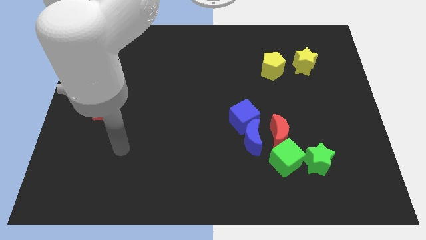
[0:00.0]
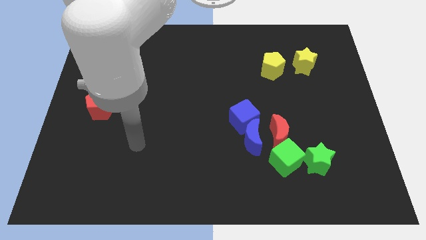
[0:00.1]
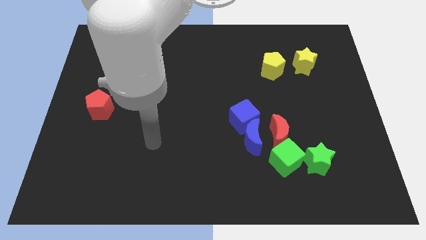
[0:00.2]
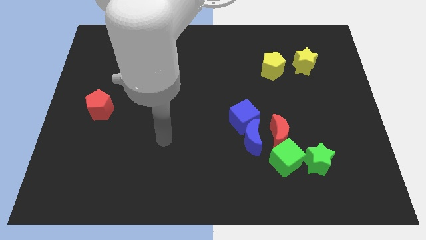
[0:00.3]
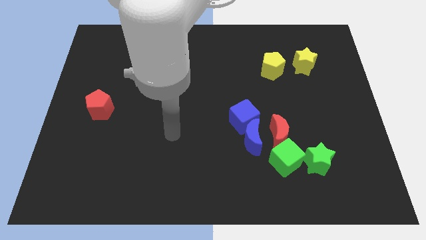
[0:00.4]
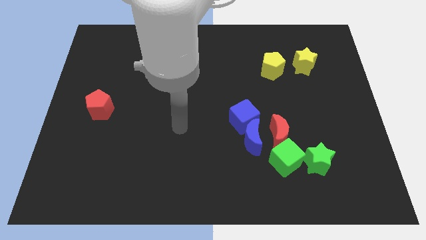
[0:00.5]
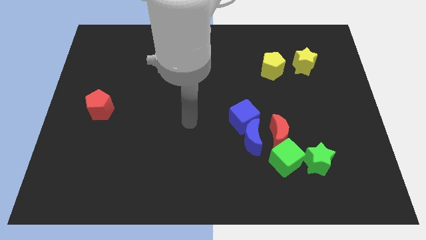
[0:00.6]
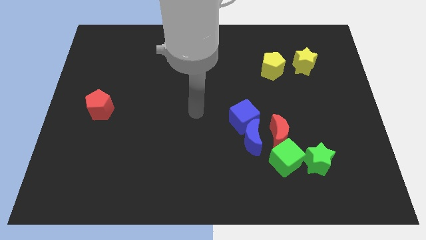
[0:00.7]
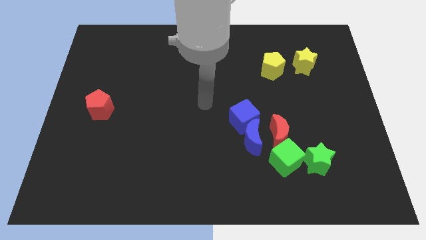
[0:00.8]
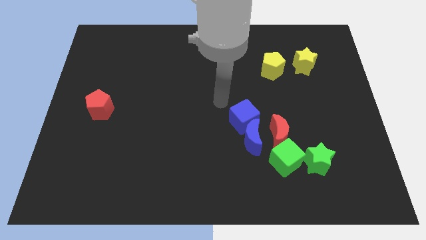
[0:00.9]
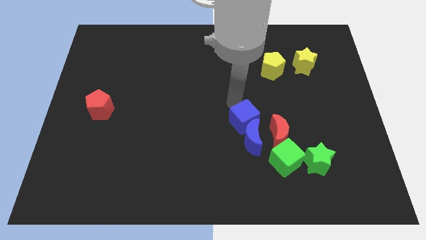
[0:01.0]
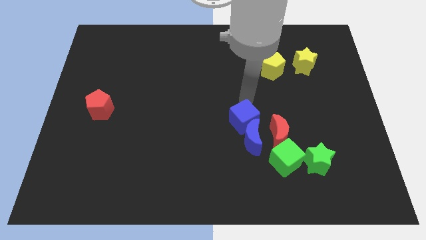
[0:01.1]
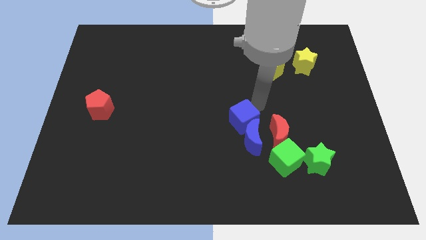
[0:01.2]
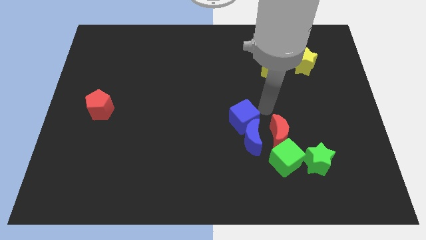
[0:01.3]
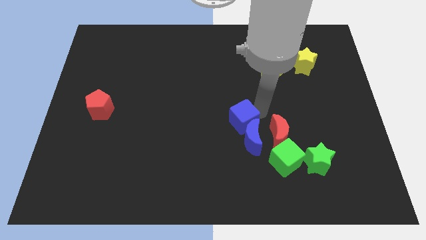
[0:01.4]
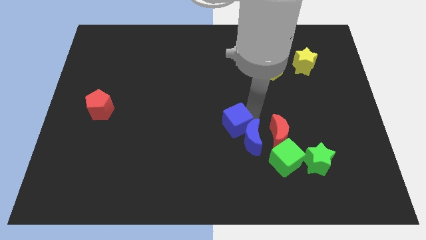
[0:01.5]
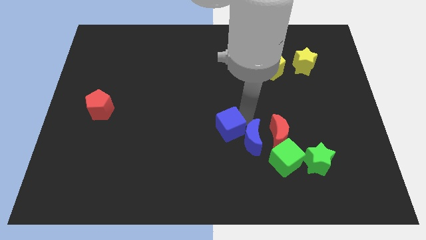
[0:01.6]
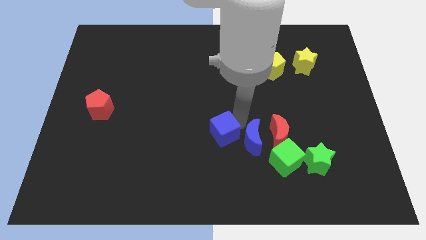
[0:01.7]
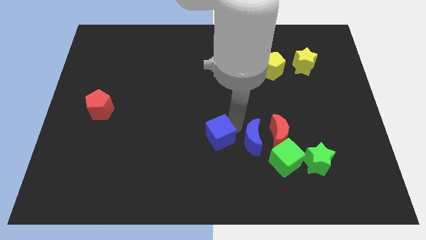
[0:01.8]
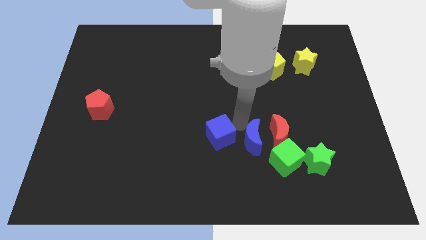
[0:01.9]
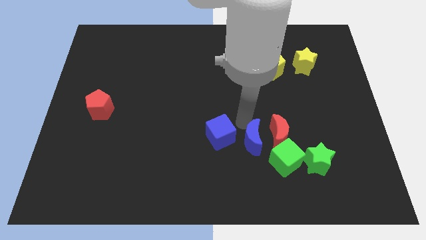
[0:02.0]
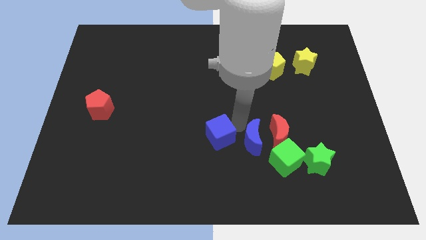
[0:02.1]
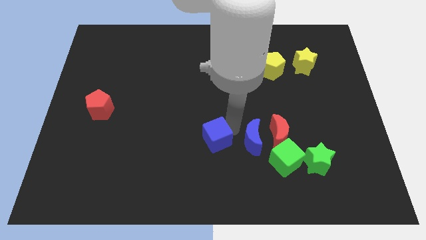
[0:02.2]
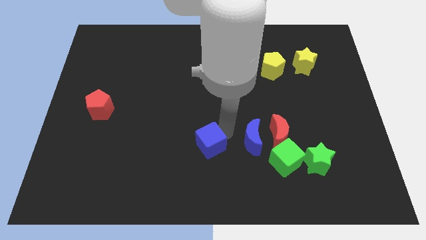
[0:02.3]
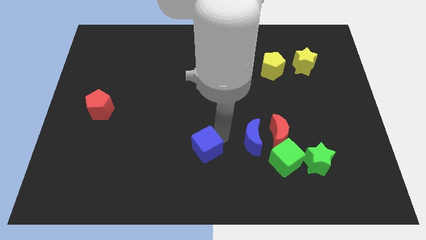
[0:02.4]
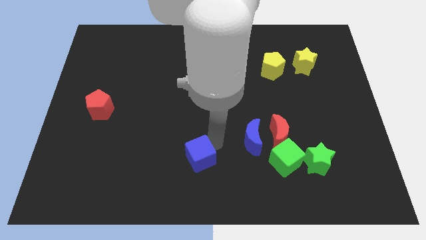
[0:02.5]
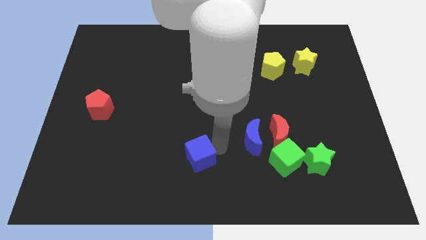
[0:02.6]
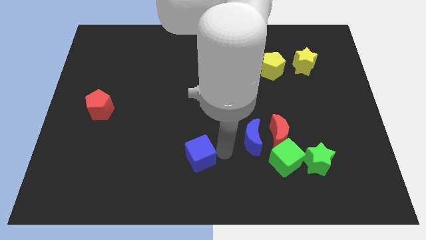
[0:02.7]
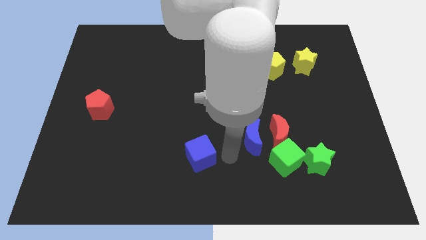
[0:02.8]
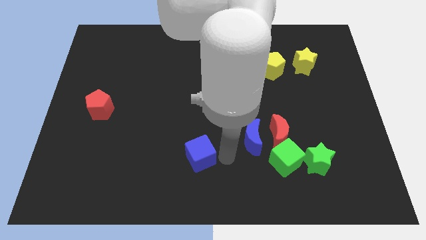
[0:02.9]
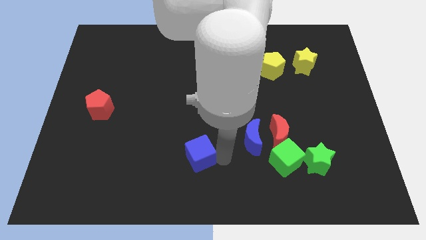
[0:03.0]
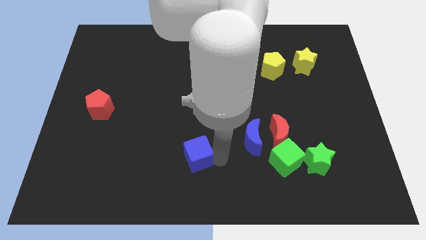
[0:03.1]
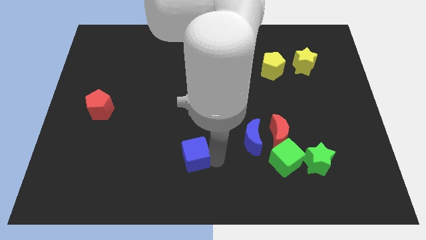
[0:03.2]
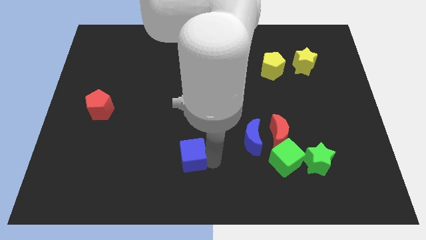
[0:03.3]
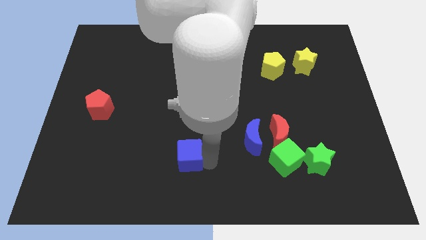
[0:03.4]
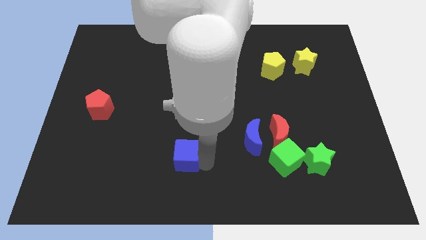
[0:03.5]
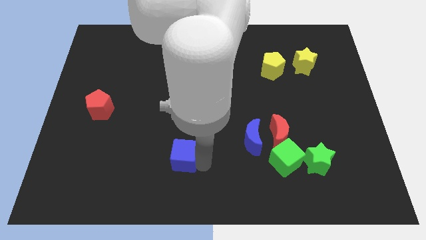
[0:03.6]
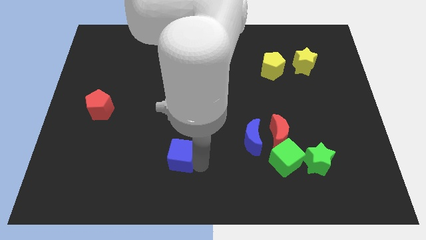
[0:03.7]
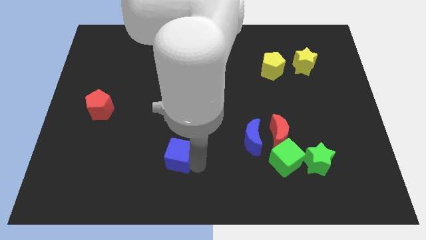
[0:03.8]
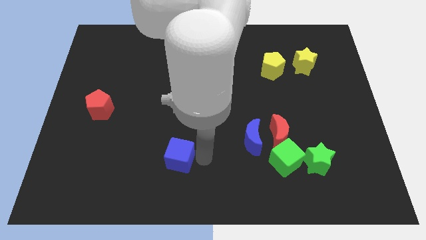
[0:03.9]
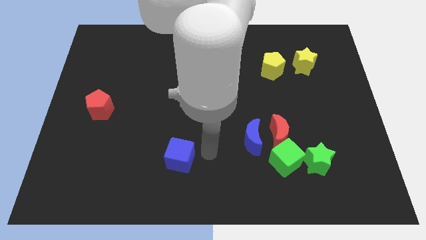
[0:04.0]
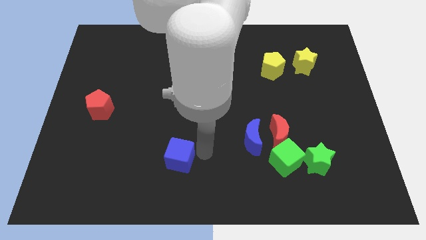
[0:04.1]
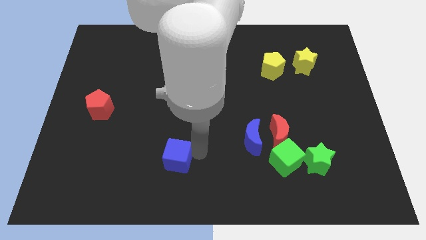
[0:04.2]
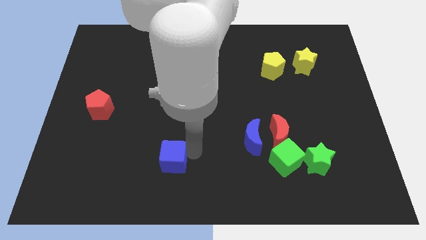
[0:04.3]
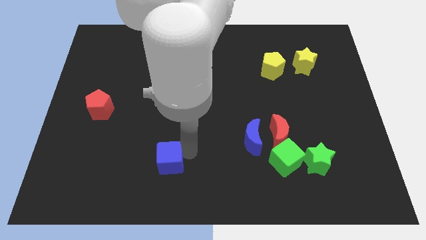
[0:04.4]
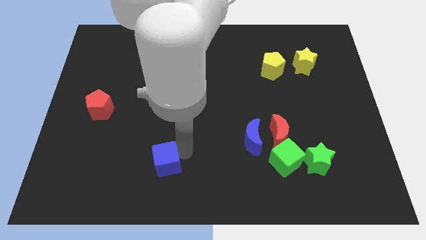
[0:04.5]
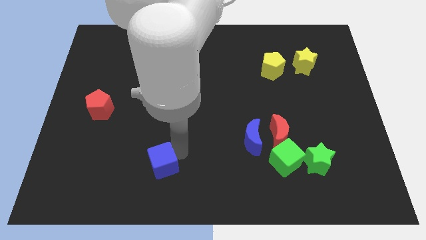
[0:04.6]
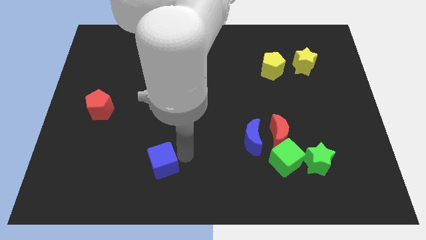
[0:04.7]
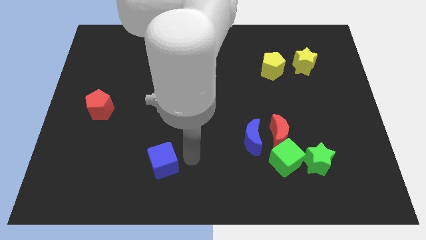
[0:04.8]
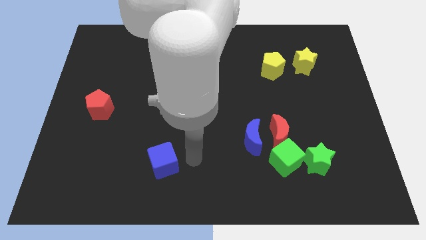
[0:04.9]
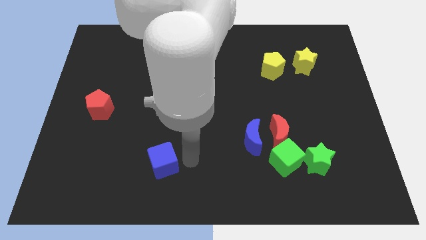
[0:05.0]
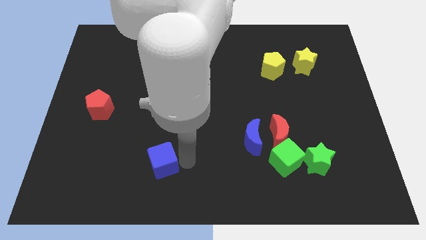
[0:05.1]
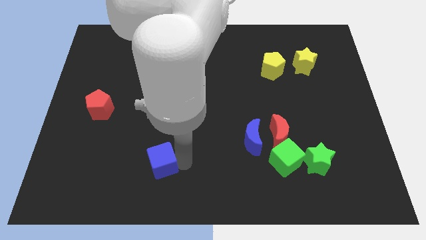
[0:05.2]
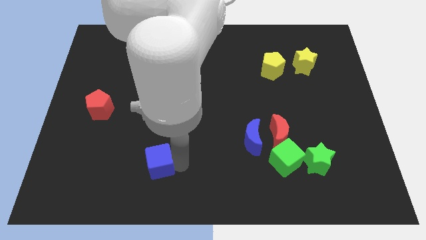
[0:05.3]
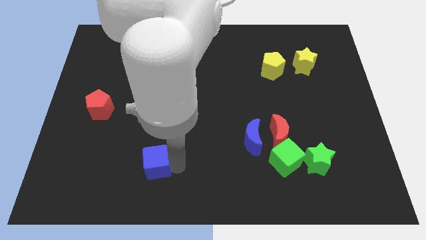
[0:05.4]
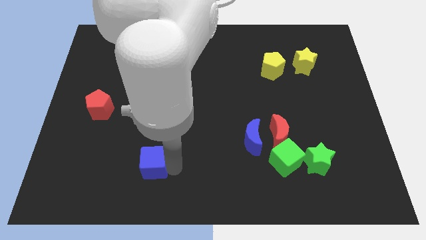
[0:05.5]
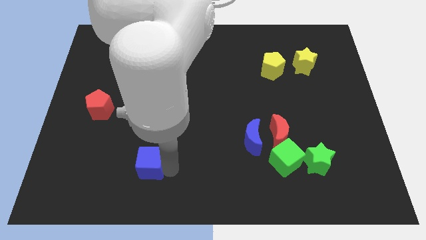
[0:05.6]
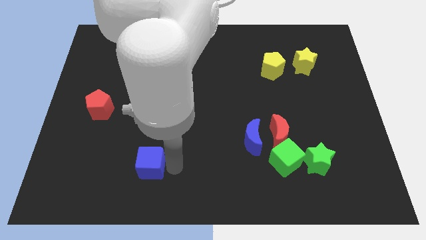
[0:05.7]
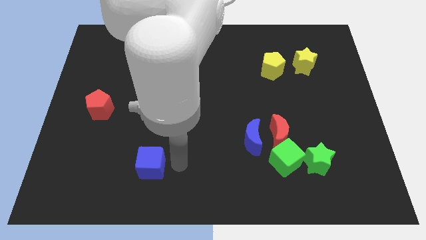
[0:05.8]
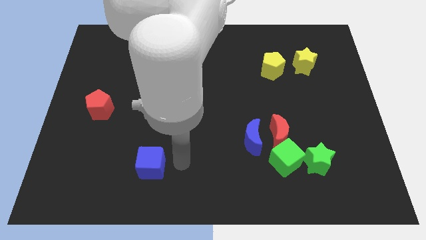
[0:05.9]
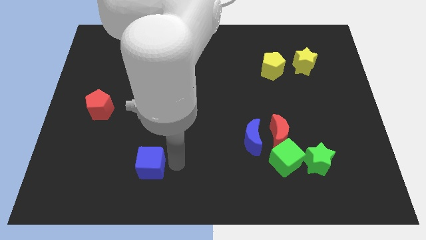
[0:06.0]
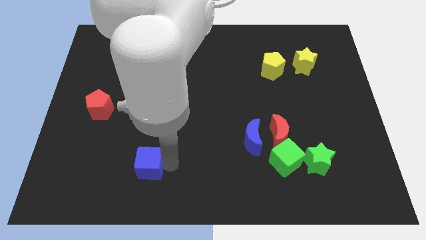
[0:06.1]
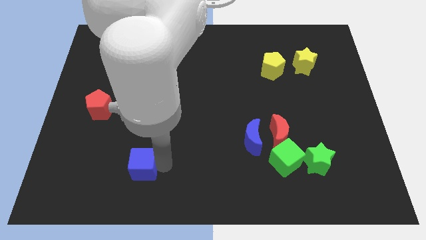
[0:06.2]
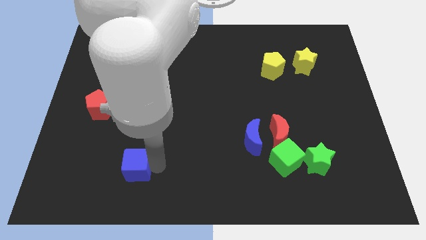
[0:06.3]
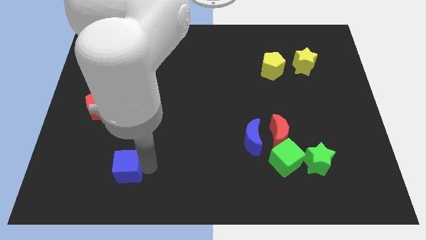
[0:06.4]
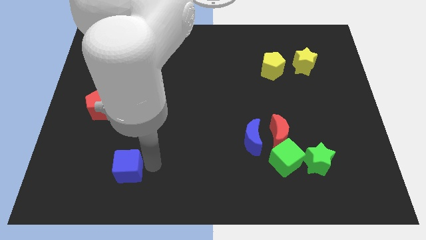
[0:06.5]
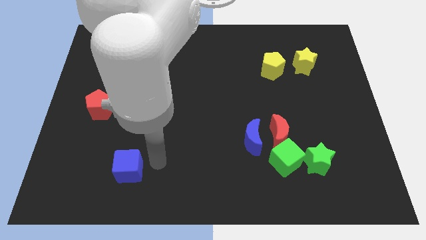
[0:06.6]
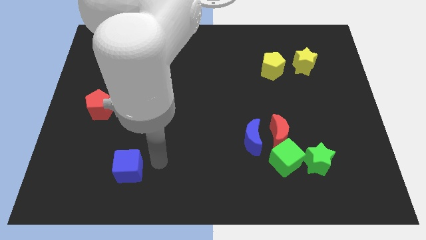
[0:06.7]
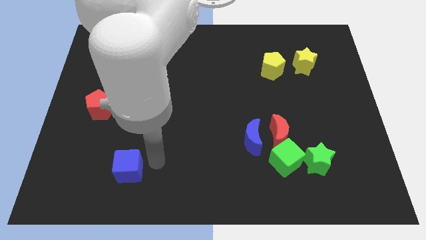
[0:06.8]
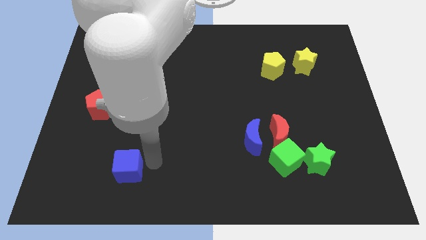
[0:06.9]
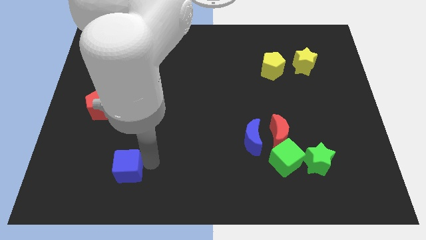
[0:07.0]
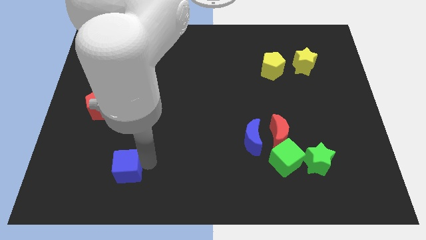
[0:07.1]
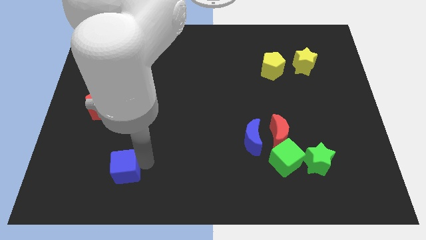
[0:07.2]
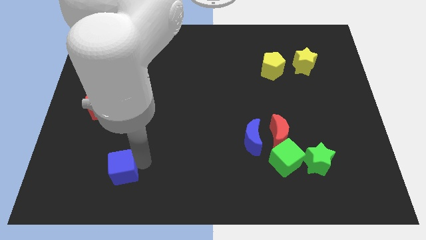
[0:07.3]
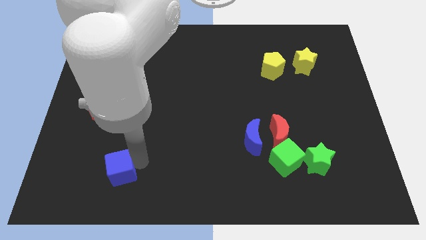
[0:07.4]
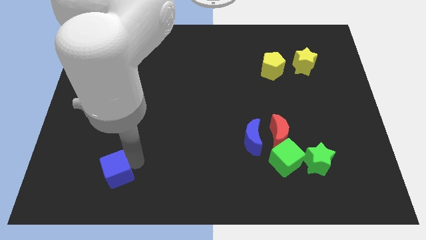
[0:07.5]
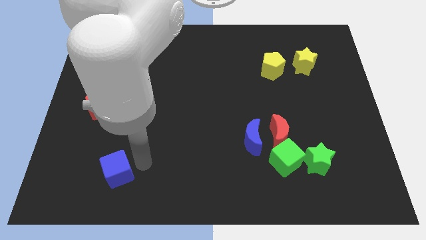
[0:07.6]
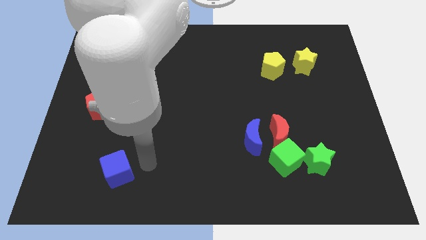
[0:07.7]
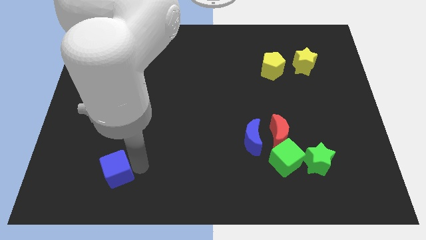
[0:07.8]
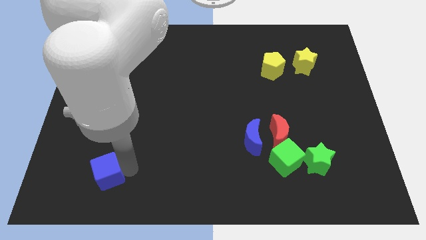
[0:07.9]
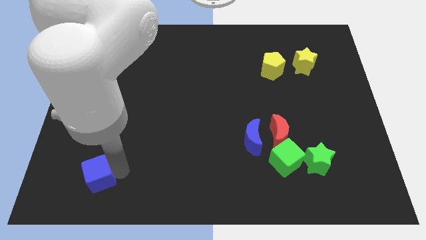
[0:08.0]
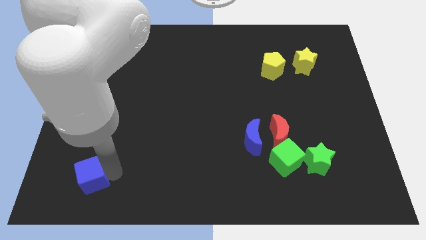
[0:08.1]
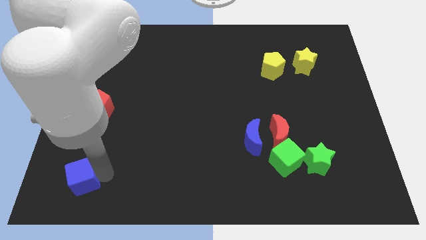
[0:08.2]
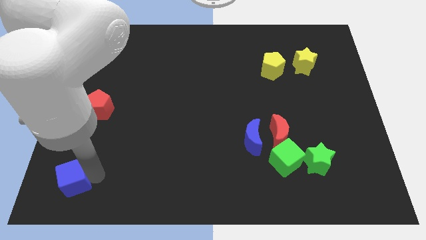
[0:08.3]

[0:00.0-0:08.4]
put the blue cube to the bottom left corner

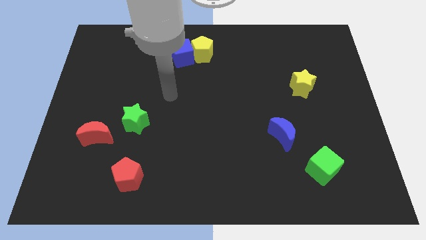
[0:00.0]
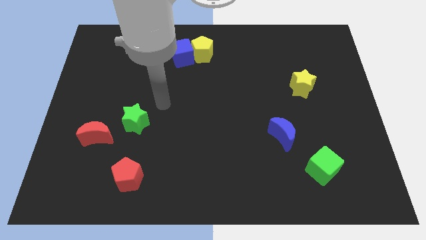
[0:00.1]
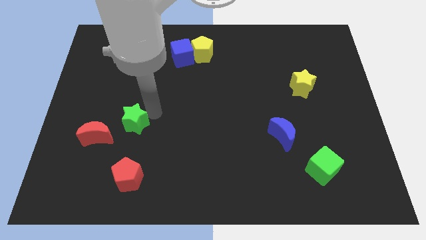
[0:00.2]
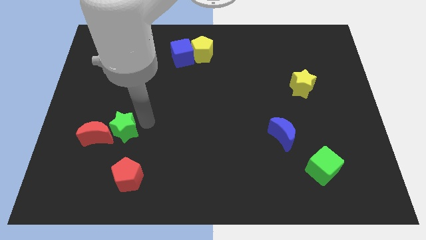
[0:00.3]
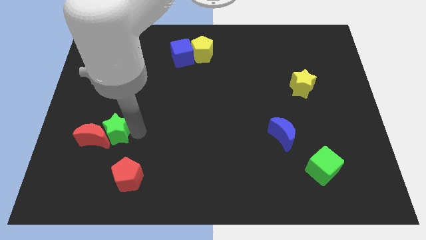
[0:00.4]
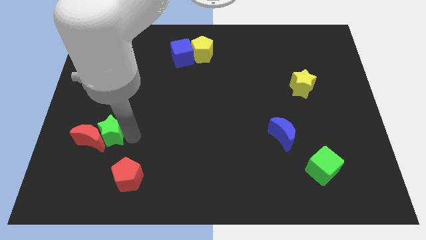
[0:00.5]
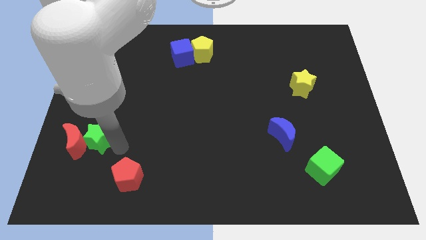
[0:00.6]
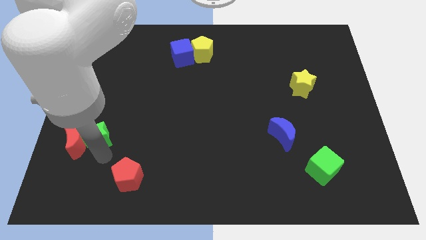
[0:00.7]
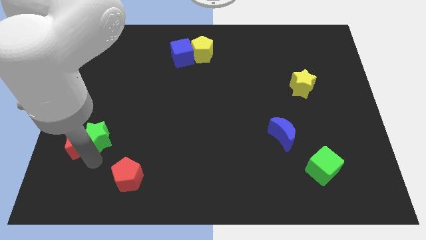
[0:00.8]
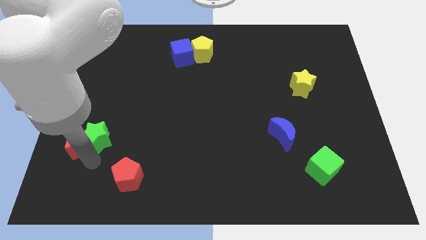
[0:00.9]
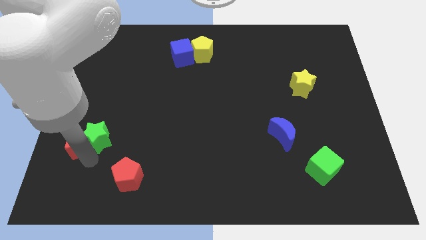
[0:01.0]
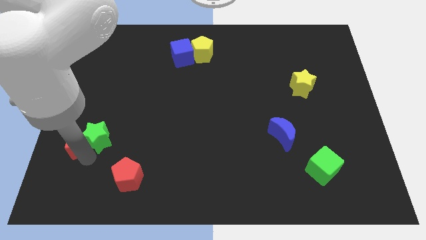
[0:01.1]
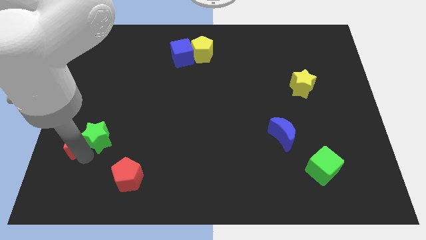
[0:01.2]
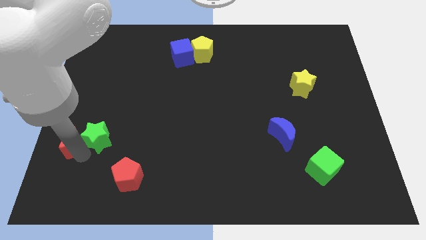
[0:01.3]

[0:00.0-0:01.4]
put the red moon to the left side
